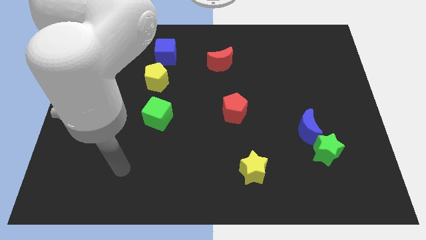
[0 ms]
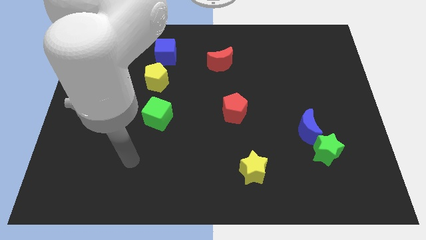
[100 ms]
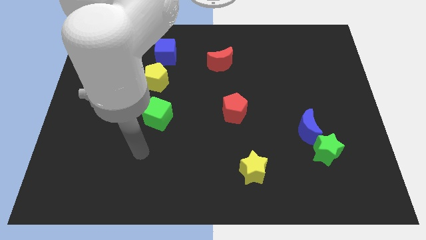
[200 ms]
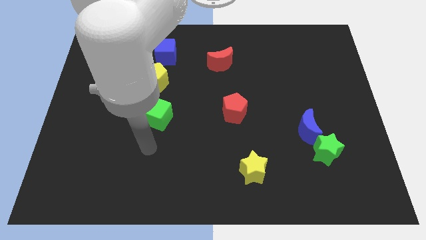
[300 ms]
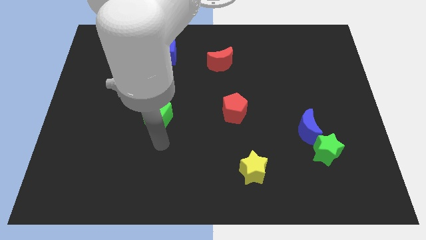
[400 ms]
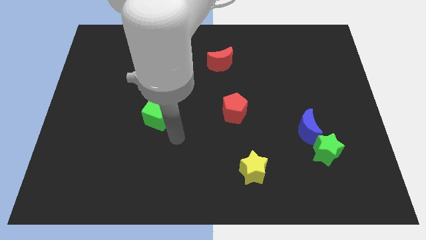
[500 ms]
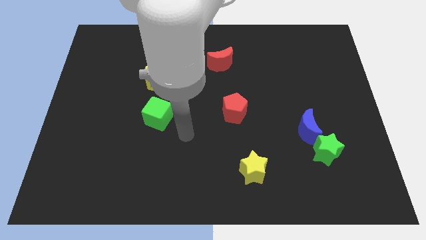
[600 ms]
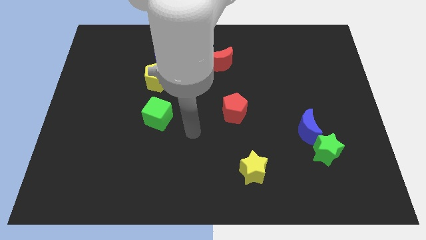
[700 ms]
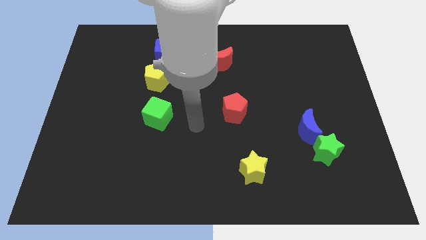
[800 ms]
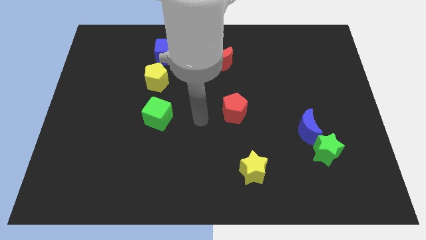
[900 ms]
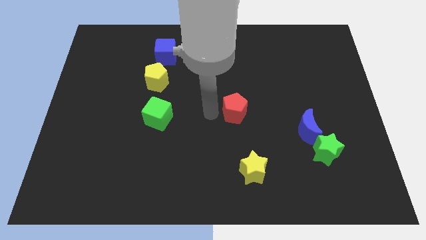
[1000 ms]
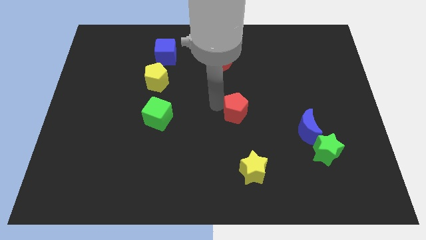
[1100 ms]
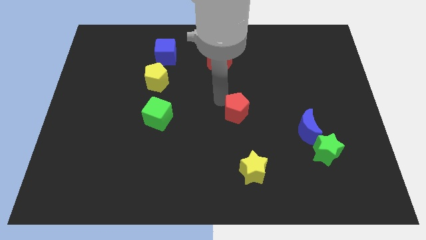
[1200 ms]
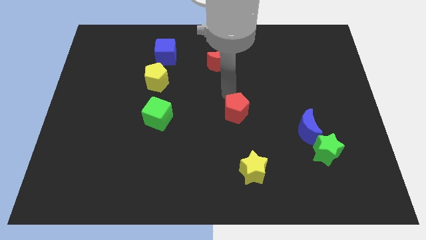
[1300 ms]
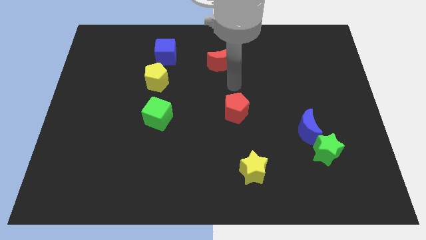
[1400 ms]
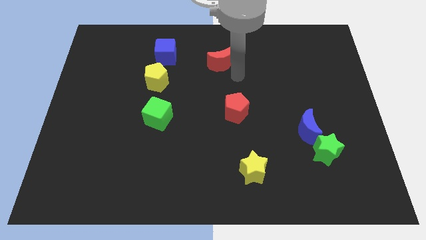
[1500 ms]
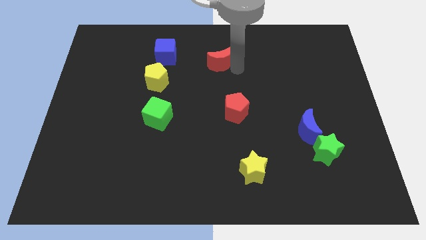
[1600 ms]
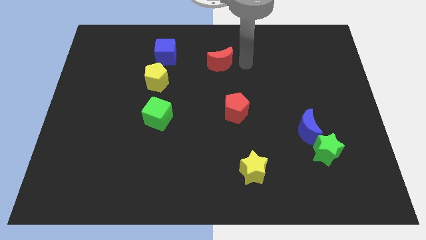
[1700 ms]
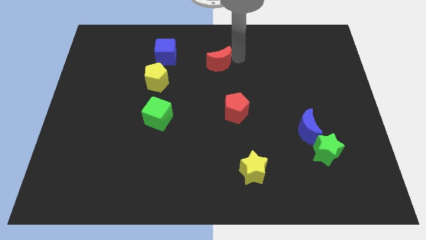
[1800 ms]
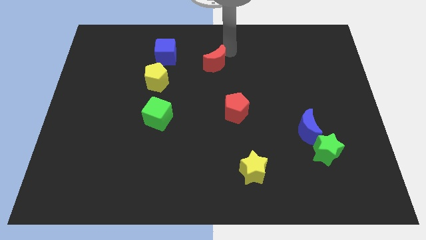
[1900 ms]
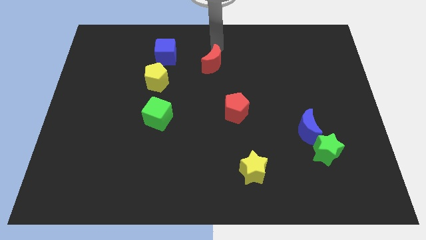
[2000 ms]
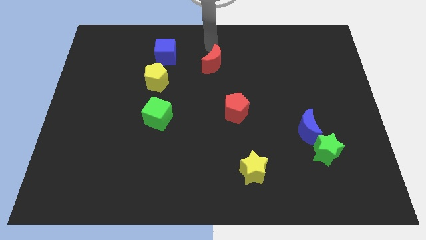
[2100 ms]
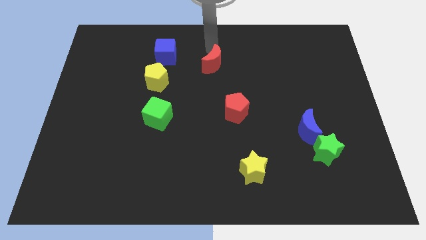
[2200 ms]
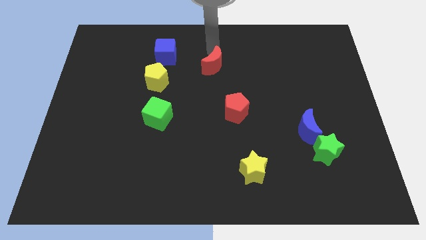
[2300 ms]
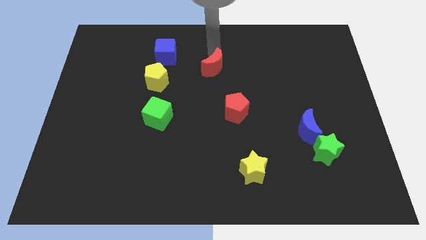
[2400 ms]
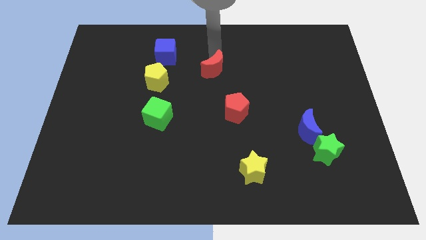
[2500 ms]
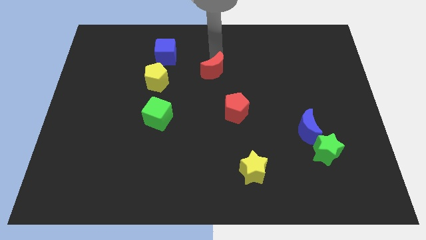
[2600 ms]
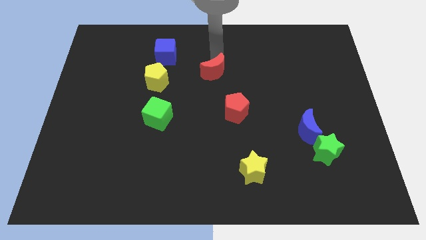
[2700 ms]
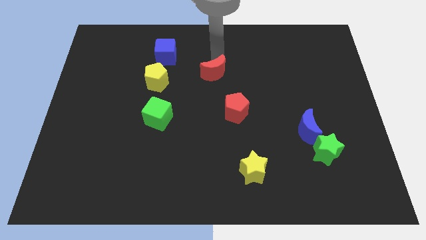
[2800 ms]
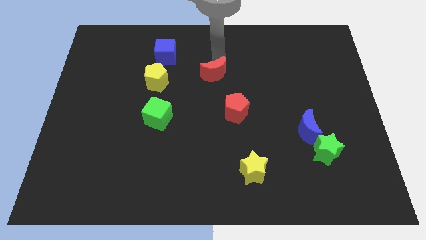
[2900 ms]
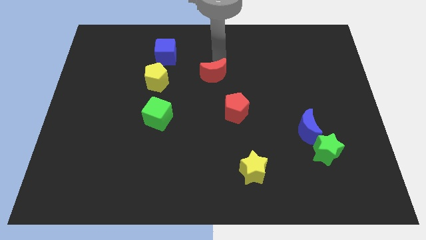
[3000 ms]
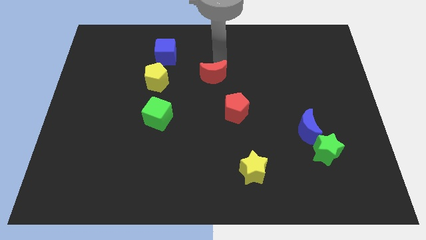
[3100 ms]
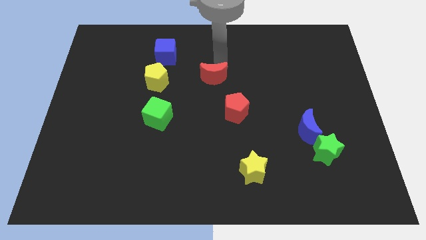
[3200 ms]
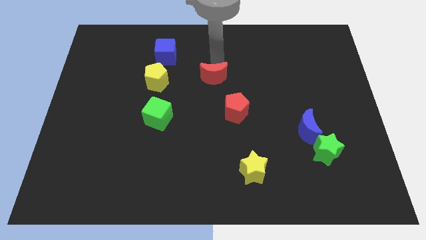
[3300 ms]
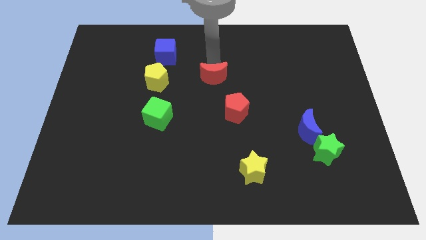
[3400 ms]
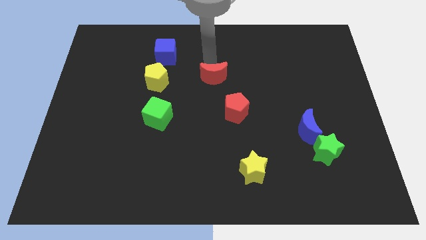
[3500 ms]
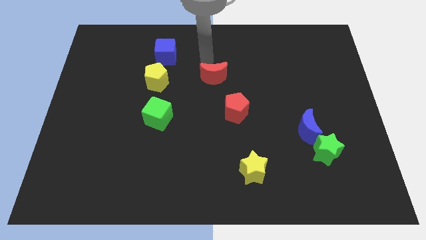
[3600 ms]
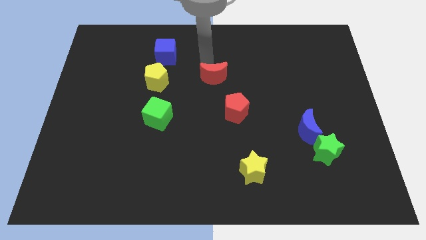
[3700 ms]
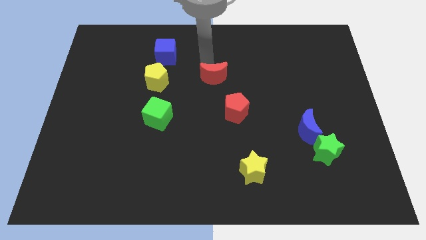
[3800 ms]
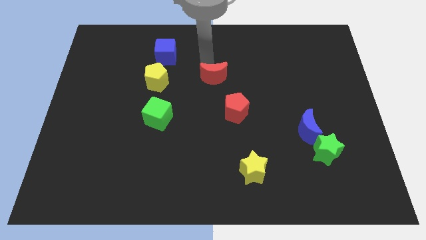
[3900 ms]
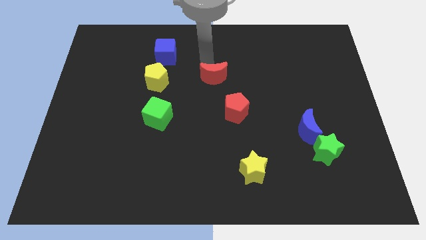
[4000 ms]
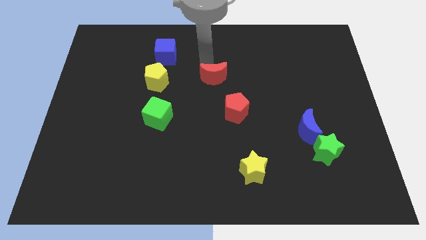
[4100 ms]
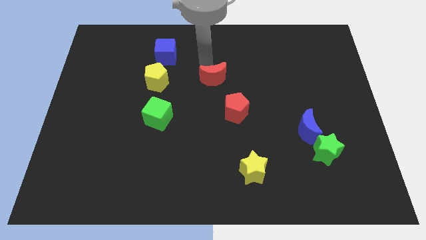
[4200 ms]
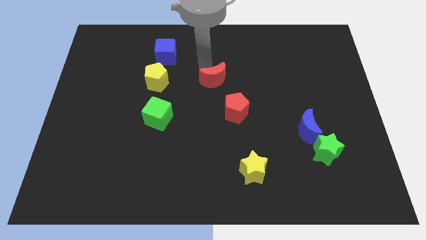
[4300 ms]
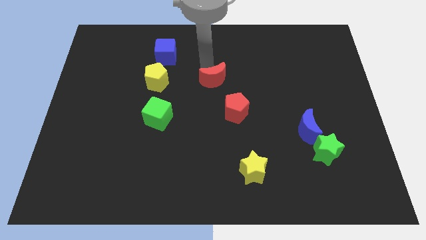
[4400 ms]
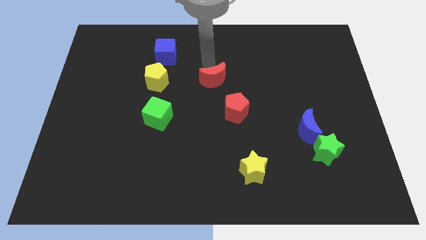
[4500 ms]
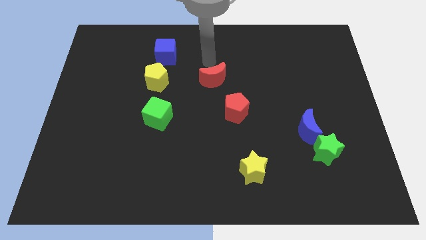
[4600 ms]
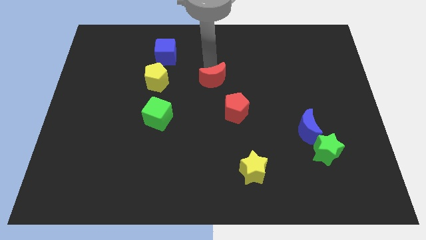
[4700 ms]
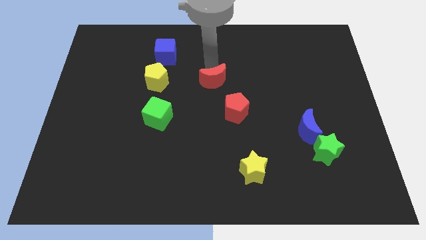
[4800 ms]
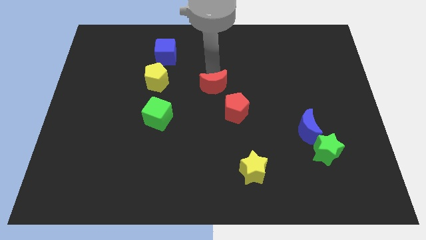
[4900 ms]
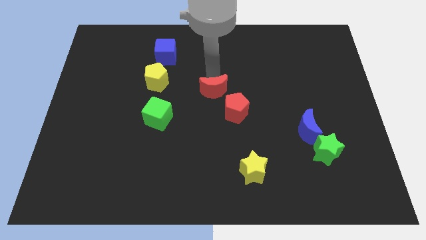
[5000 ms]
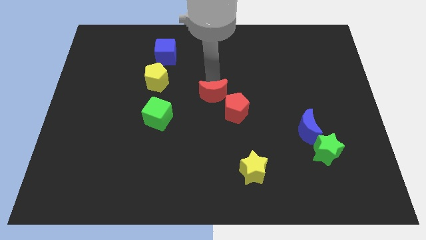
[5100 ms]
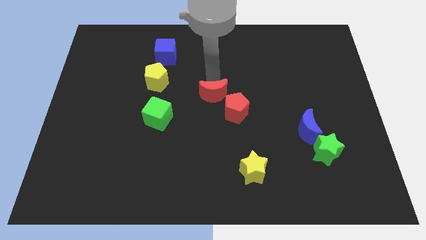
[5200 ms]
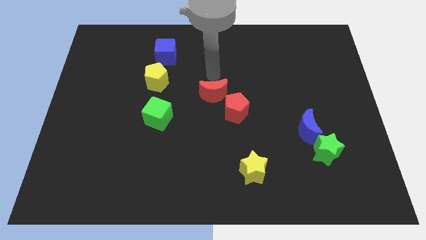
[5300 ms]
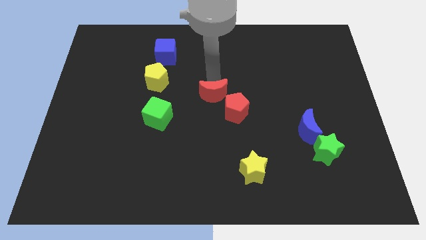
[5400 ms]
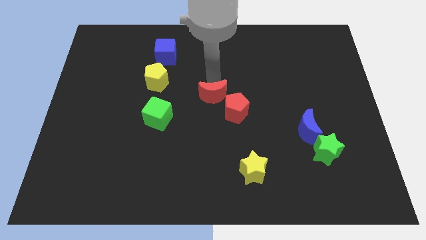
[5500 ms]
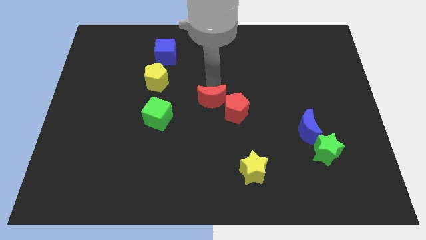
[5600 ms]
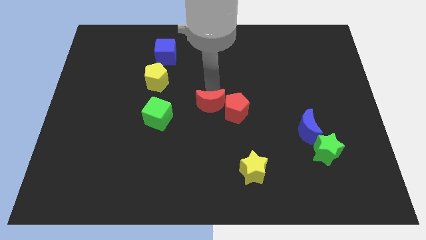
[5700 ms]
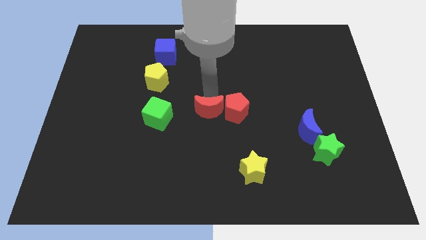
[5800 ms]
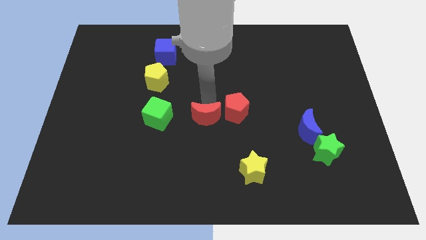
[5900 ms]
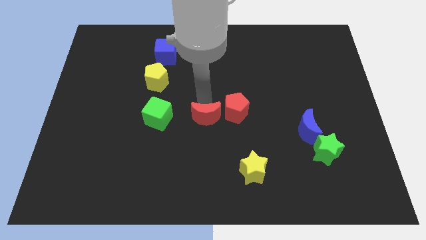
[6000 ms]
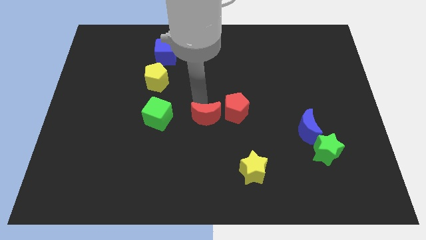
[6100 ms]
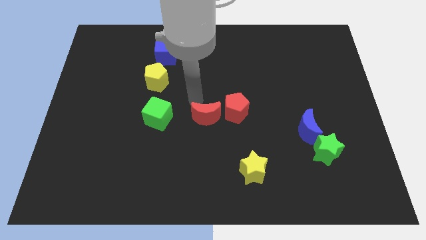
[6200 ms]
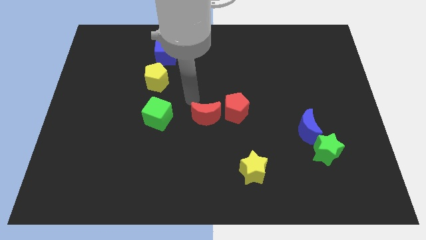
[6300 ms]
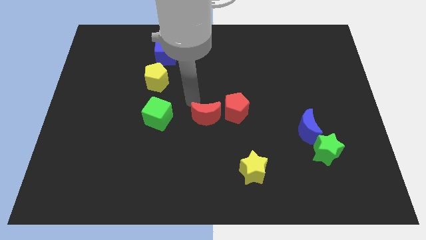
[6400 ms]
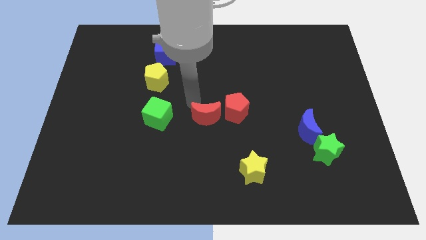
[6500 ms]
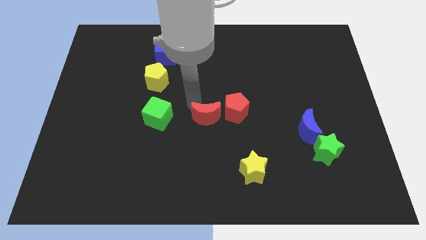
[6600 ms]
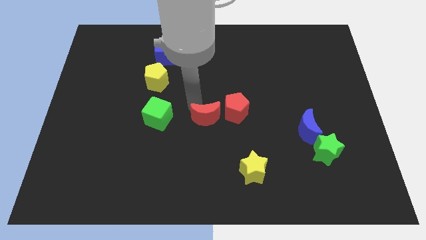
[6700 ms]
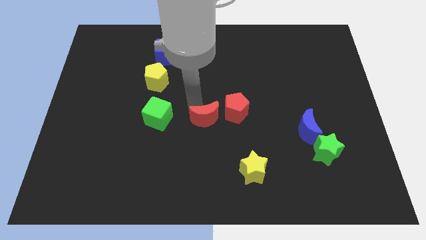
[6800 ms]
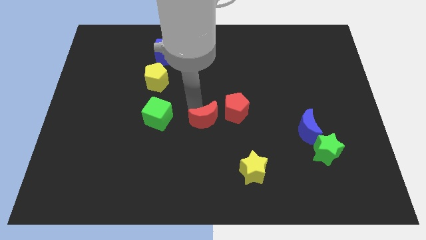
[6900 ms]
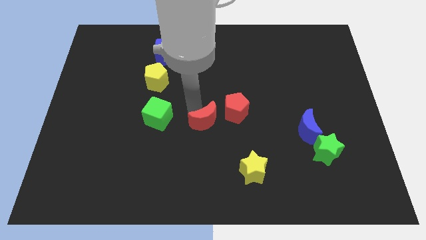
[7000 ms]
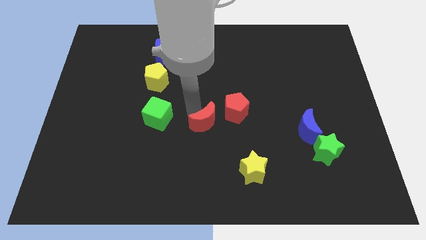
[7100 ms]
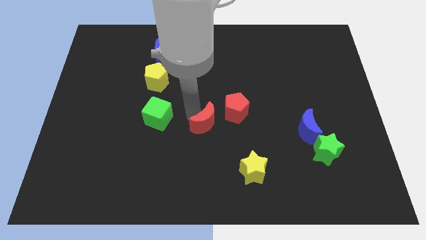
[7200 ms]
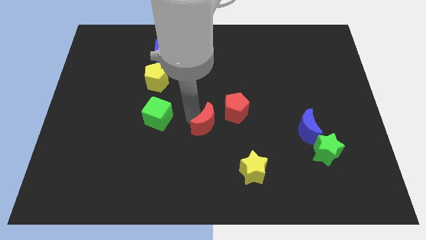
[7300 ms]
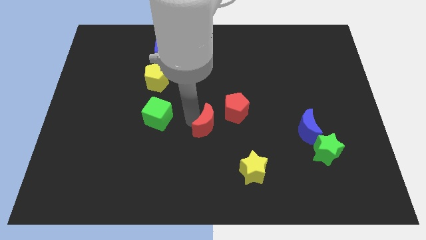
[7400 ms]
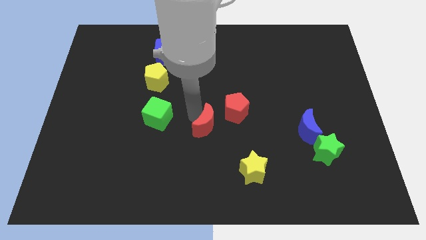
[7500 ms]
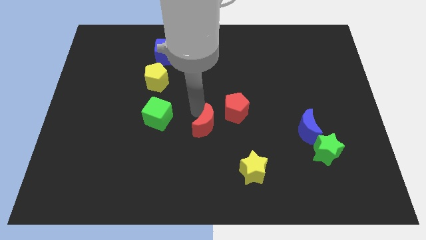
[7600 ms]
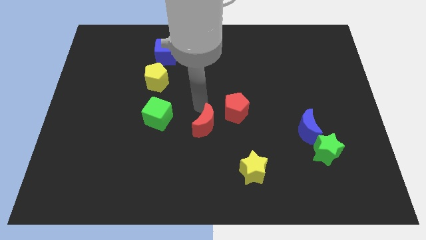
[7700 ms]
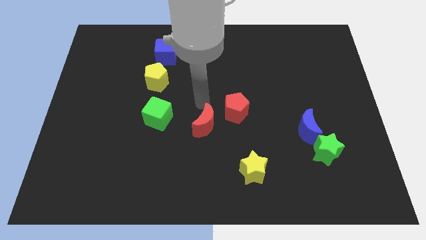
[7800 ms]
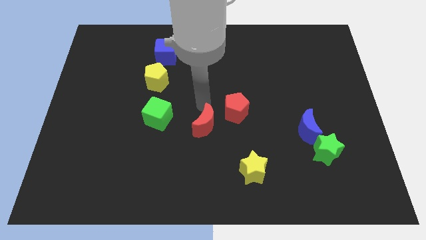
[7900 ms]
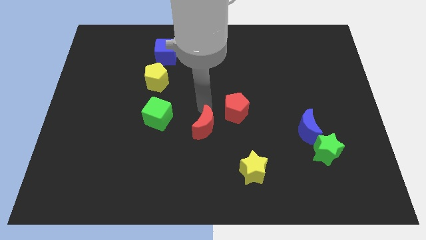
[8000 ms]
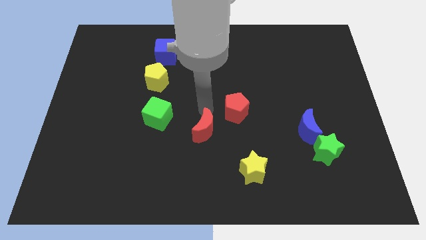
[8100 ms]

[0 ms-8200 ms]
push the red moon down
